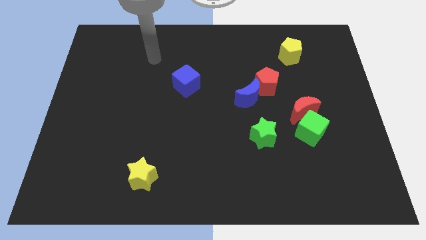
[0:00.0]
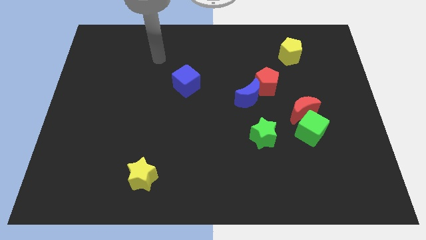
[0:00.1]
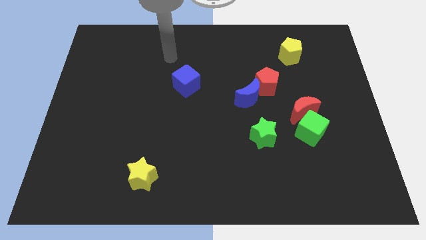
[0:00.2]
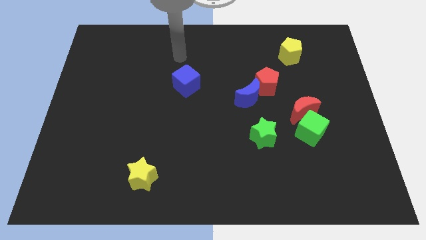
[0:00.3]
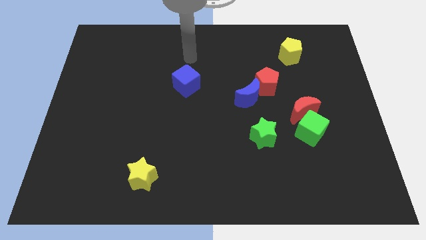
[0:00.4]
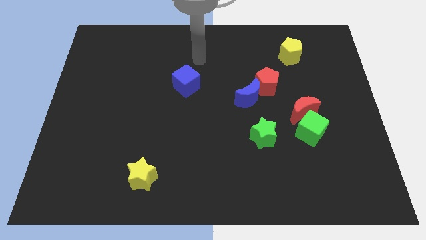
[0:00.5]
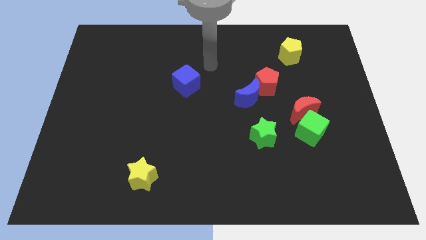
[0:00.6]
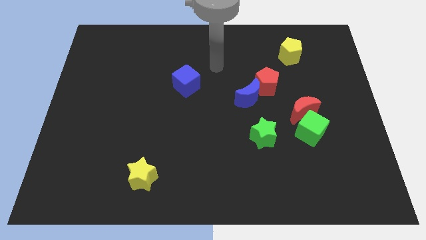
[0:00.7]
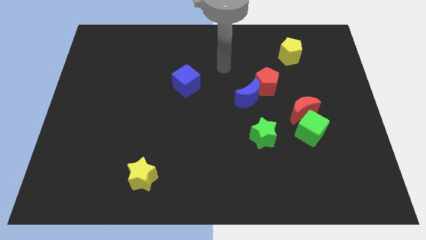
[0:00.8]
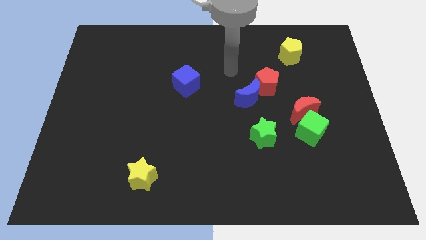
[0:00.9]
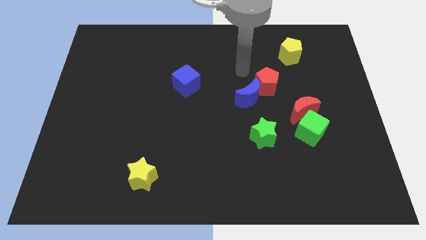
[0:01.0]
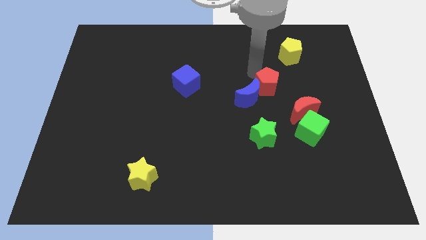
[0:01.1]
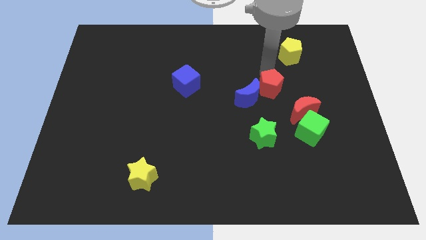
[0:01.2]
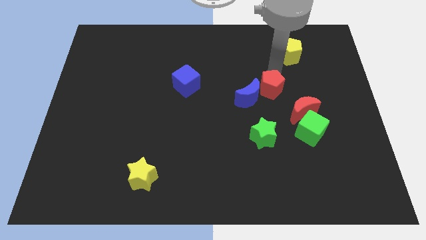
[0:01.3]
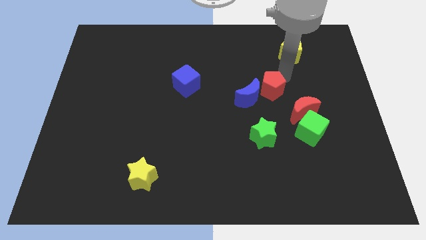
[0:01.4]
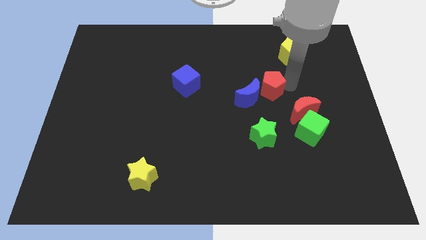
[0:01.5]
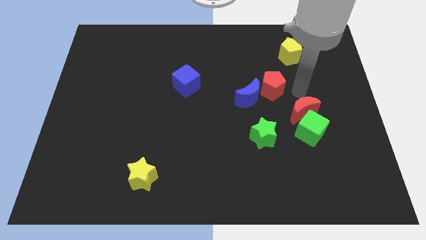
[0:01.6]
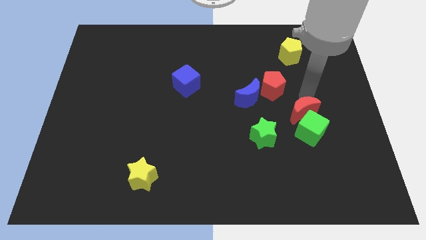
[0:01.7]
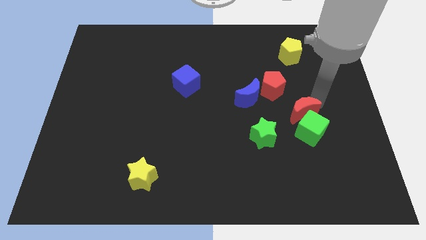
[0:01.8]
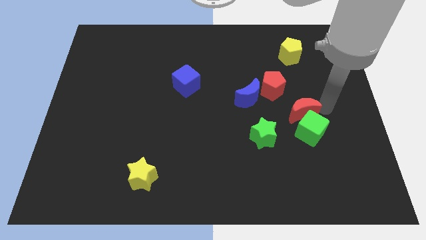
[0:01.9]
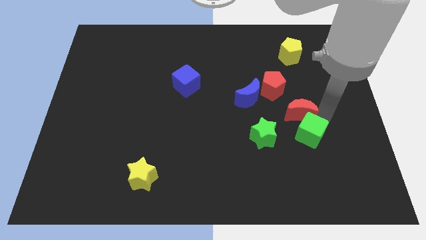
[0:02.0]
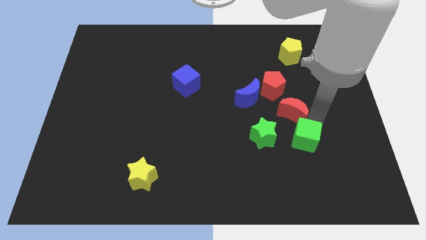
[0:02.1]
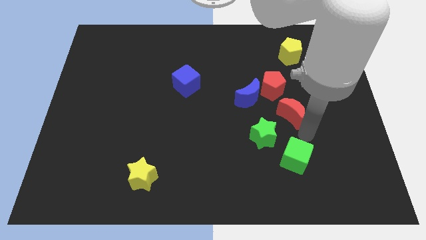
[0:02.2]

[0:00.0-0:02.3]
separate the red moon from the green cube

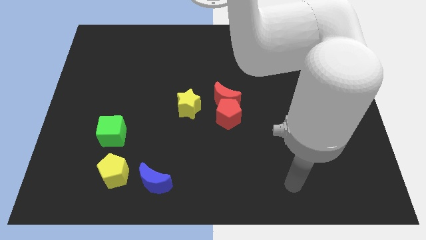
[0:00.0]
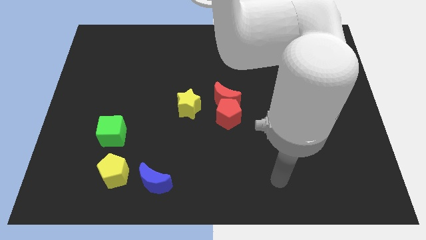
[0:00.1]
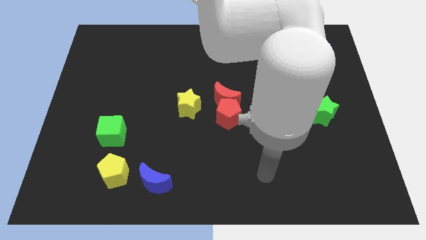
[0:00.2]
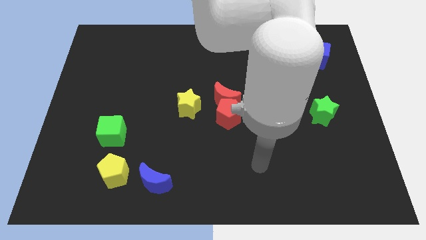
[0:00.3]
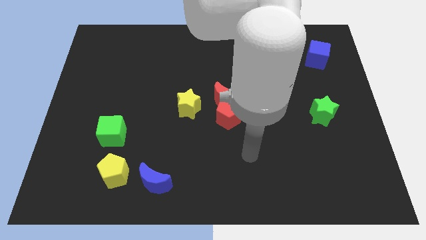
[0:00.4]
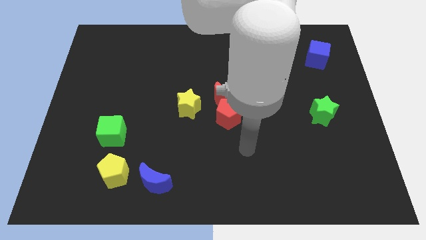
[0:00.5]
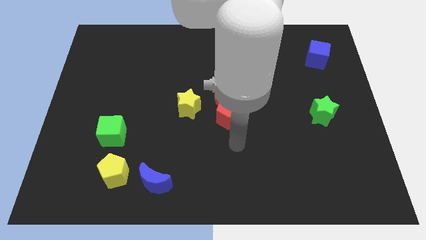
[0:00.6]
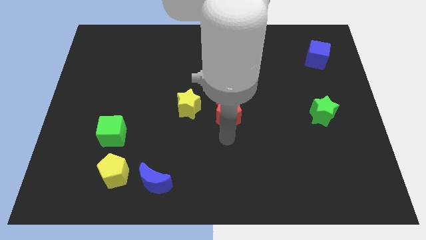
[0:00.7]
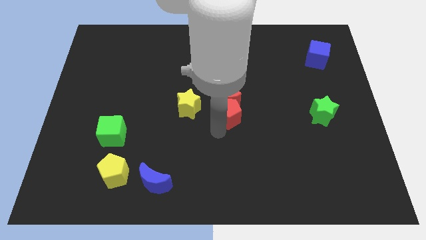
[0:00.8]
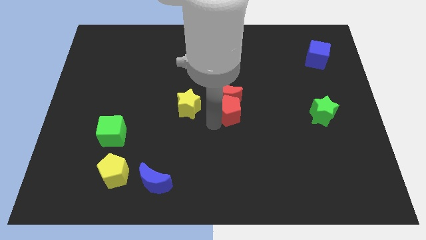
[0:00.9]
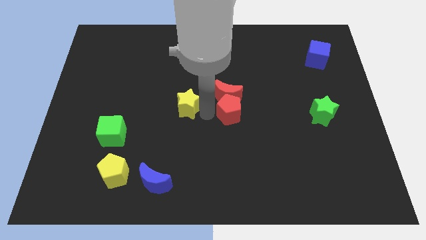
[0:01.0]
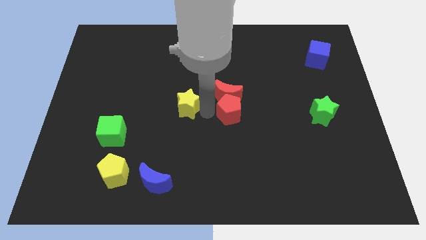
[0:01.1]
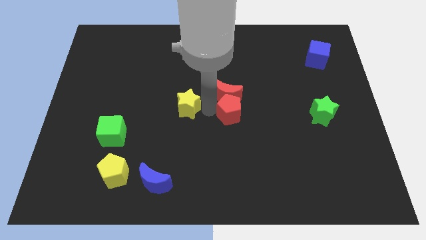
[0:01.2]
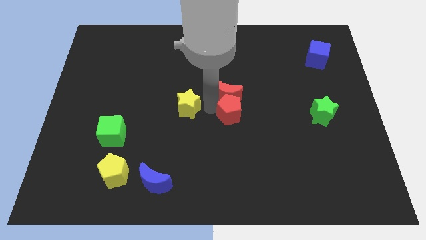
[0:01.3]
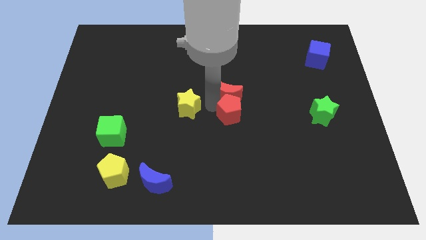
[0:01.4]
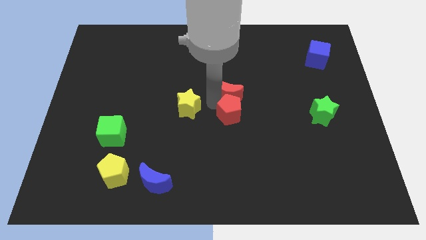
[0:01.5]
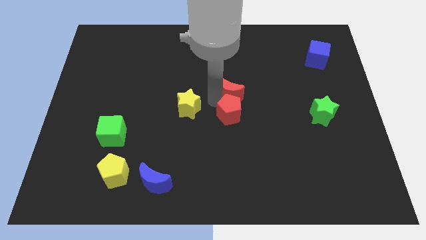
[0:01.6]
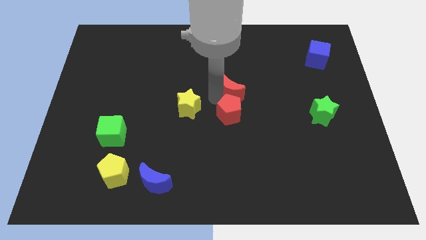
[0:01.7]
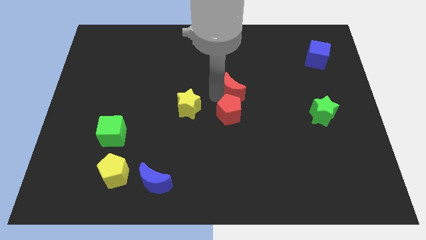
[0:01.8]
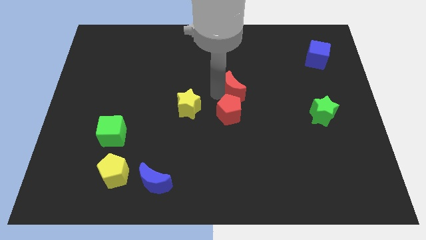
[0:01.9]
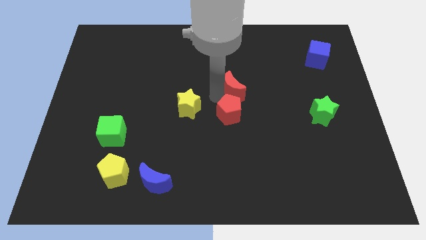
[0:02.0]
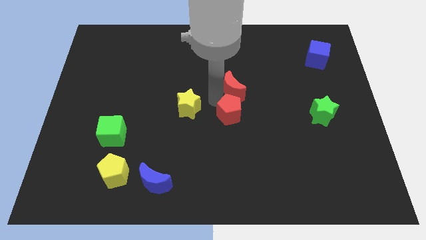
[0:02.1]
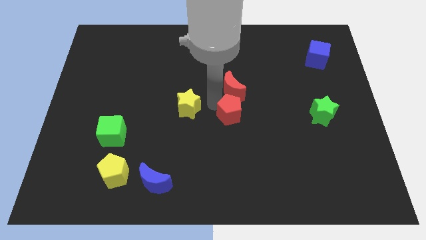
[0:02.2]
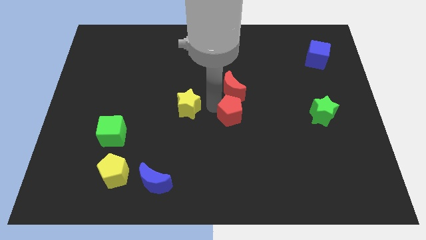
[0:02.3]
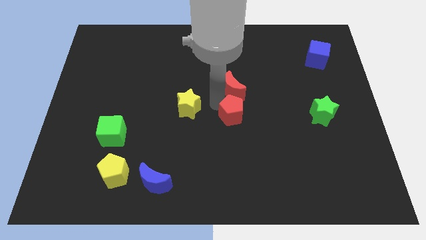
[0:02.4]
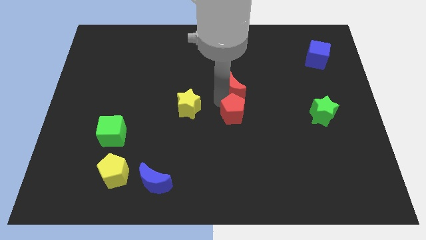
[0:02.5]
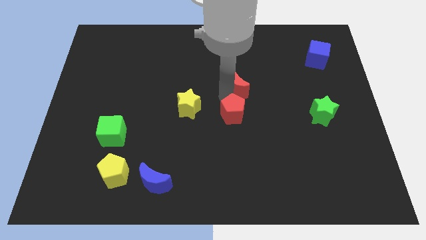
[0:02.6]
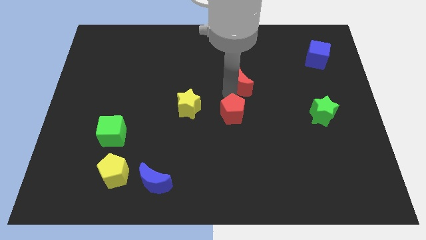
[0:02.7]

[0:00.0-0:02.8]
separate the red moon from the red pentagon and yellow star

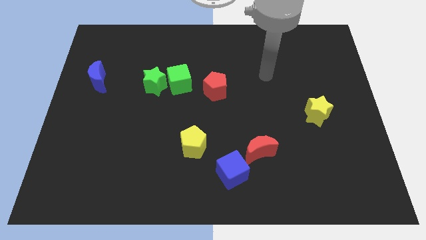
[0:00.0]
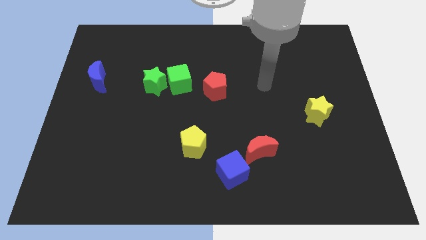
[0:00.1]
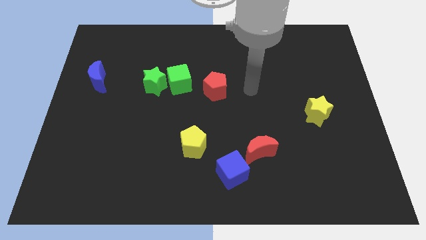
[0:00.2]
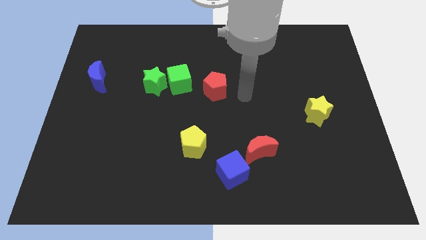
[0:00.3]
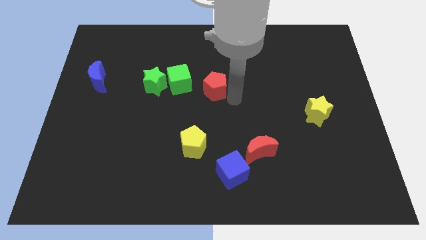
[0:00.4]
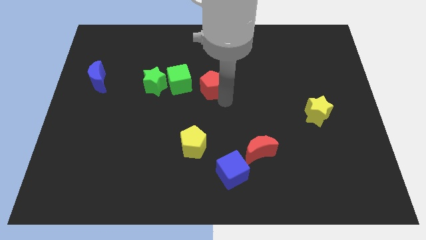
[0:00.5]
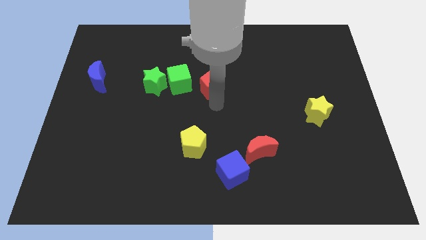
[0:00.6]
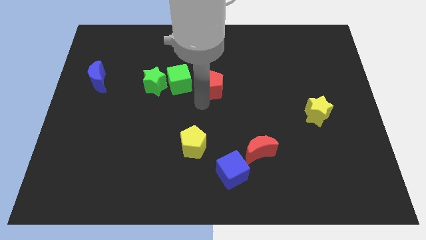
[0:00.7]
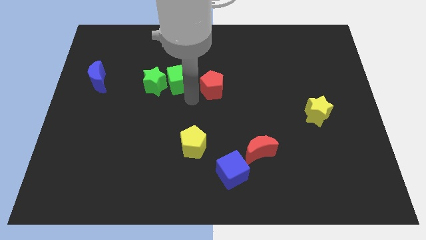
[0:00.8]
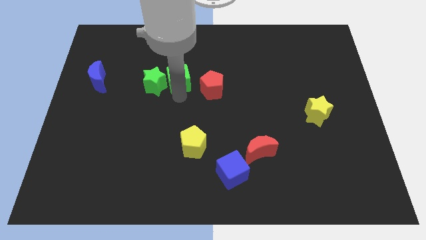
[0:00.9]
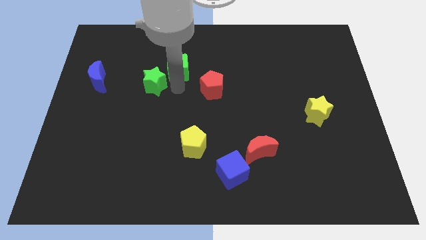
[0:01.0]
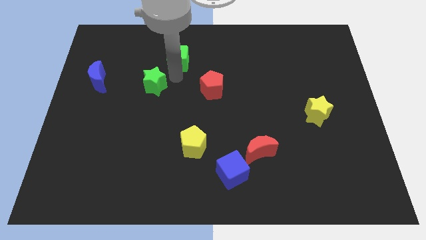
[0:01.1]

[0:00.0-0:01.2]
pull the green star apart from the green cube

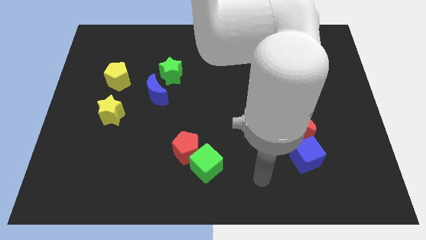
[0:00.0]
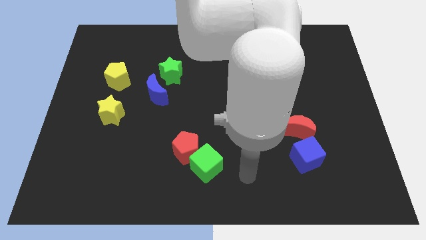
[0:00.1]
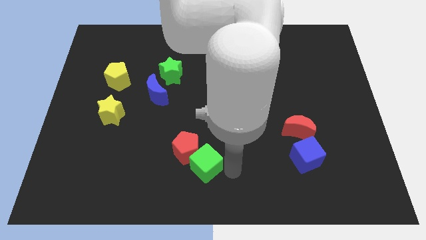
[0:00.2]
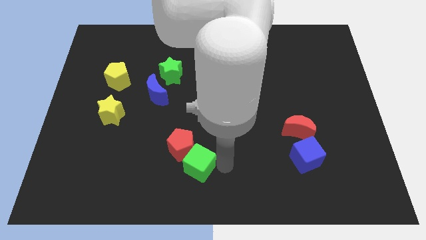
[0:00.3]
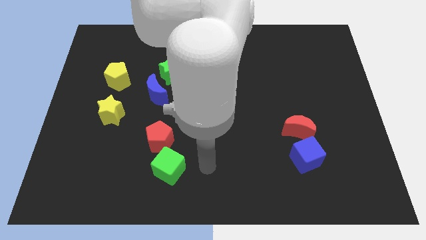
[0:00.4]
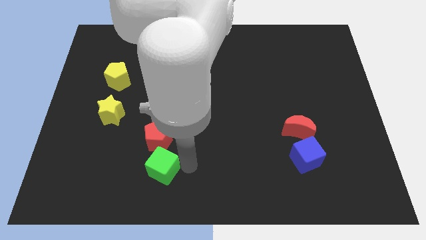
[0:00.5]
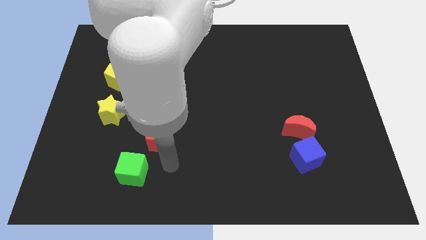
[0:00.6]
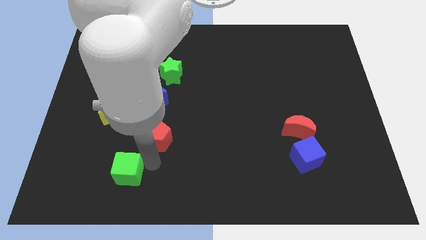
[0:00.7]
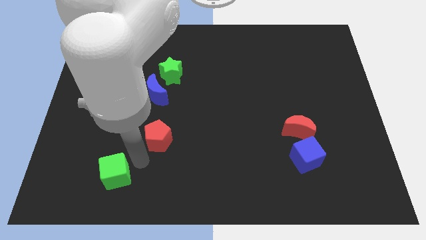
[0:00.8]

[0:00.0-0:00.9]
pull the red pentagon apart from the green cube

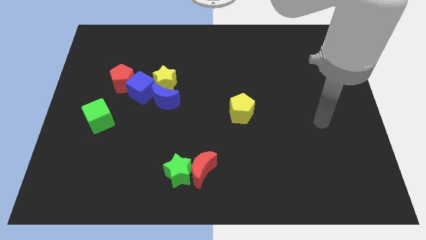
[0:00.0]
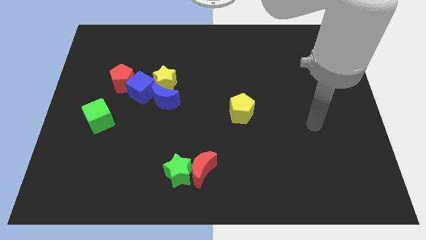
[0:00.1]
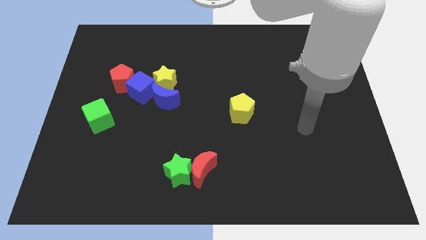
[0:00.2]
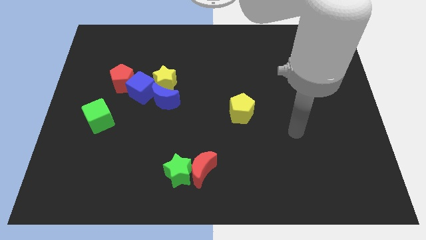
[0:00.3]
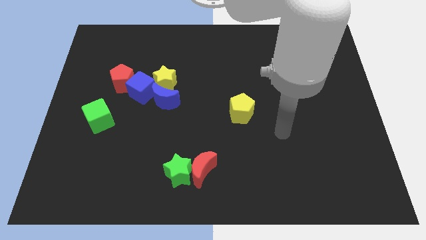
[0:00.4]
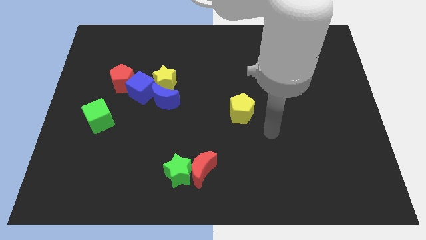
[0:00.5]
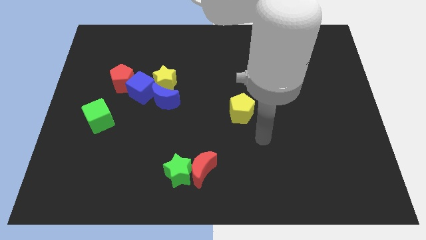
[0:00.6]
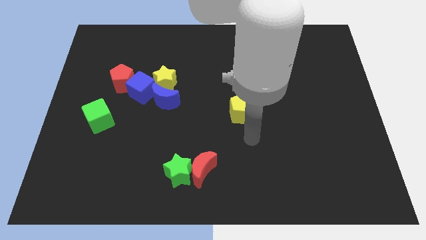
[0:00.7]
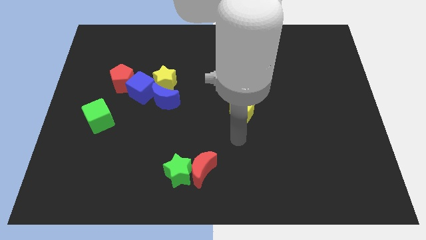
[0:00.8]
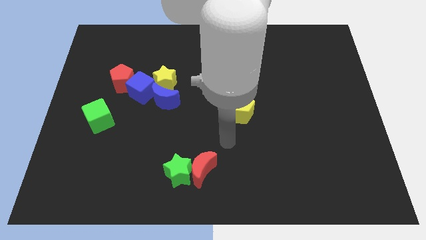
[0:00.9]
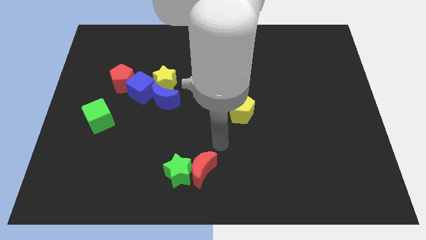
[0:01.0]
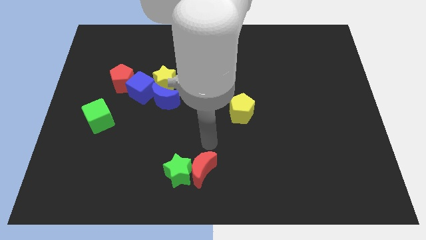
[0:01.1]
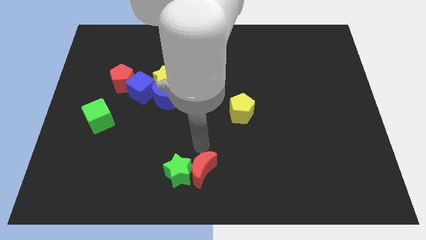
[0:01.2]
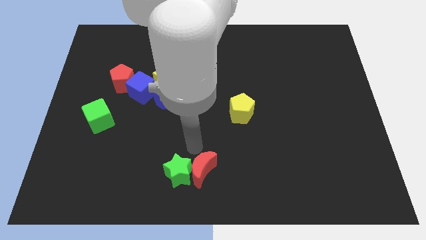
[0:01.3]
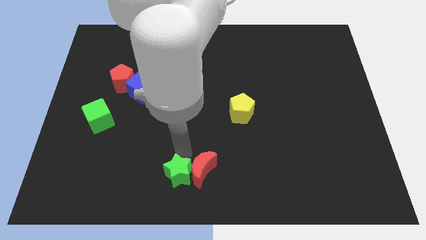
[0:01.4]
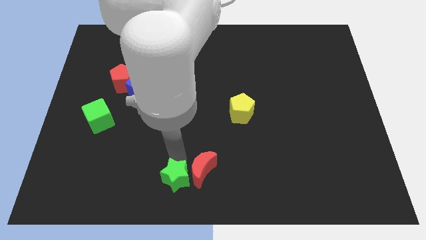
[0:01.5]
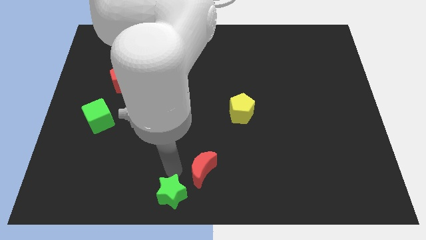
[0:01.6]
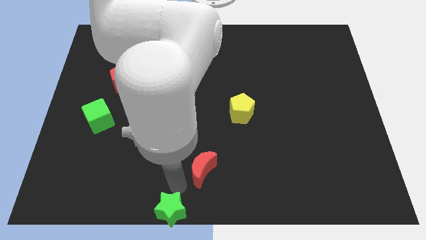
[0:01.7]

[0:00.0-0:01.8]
pull the red moon apart from the green star

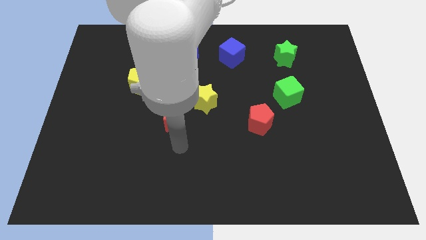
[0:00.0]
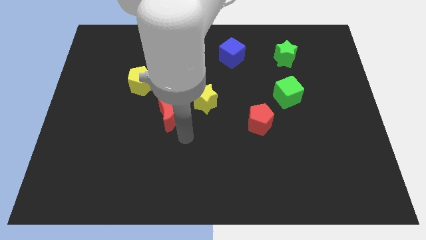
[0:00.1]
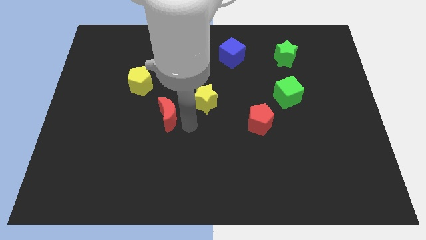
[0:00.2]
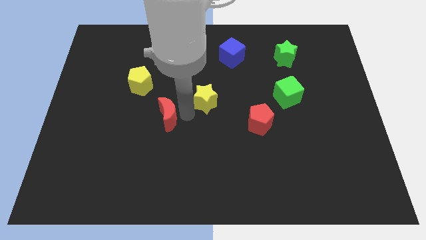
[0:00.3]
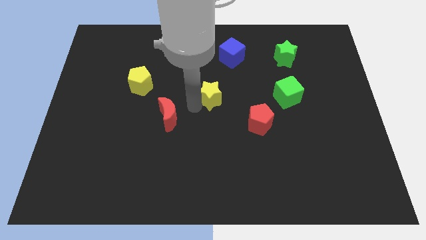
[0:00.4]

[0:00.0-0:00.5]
separate the red moon from the yellow star
